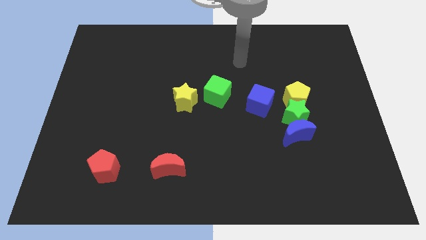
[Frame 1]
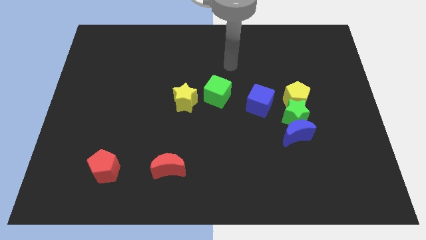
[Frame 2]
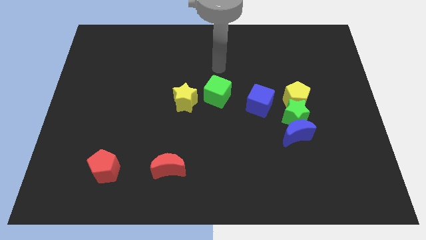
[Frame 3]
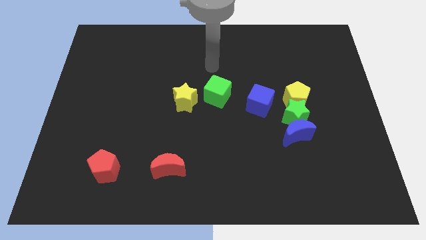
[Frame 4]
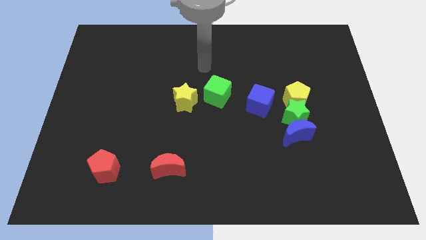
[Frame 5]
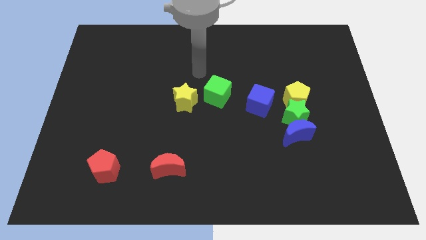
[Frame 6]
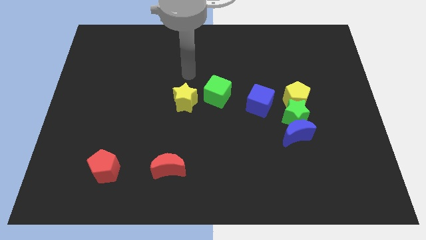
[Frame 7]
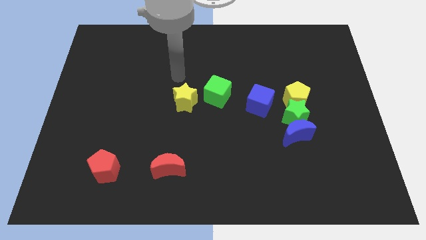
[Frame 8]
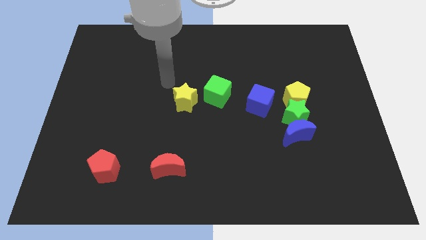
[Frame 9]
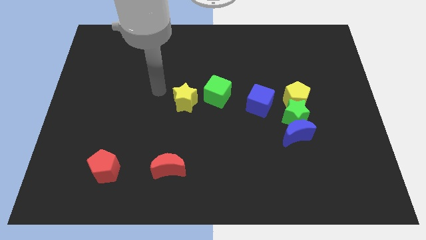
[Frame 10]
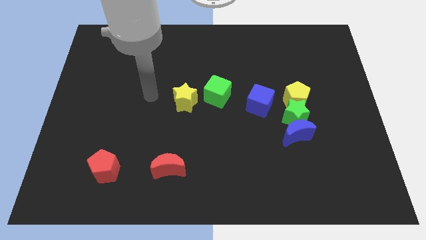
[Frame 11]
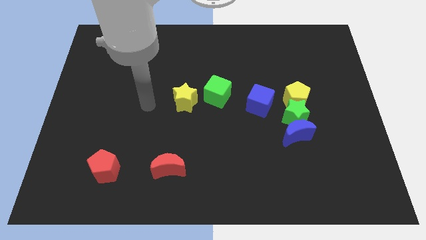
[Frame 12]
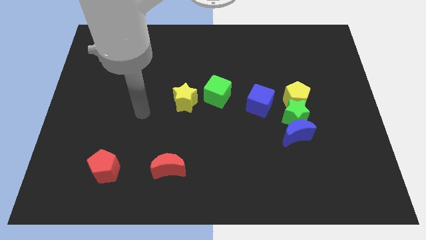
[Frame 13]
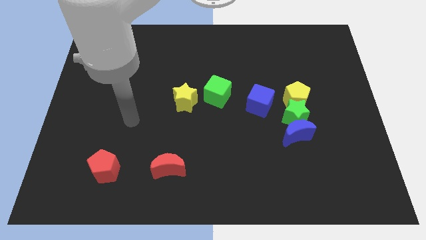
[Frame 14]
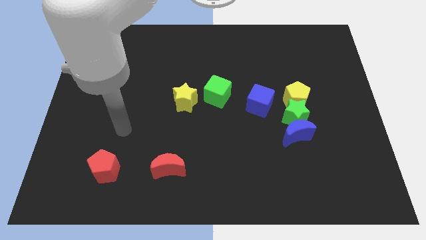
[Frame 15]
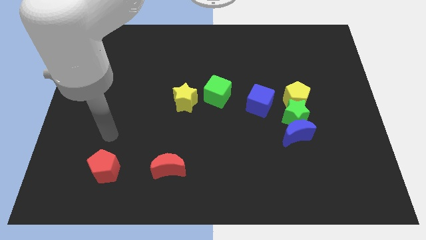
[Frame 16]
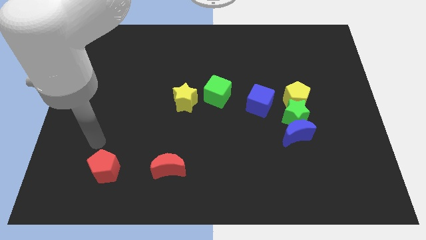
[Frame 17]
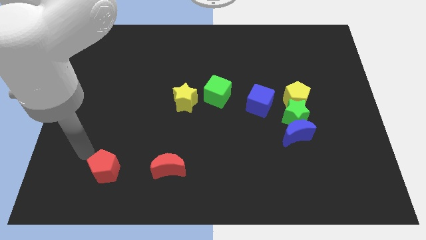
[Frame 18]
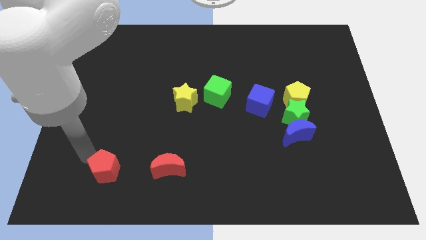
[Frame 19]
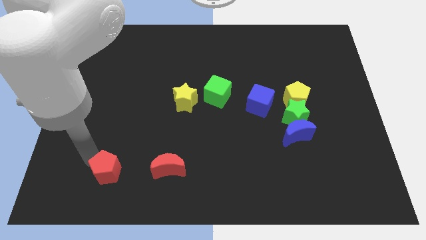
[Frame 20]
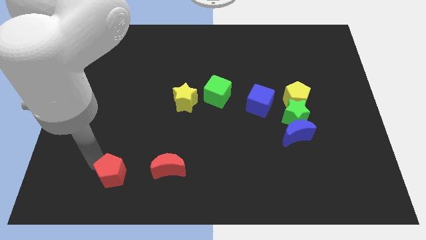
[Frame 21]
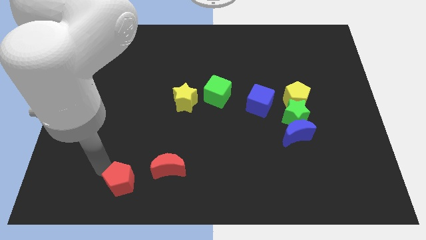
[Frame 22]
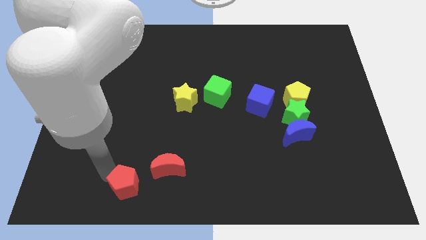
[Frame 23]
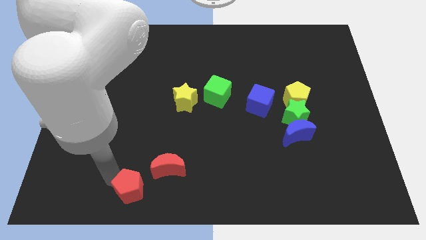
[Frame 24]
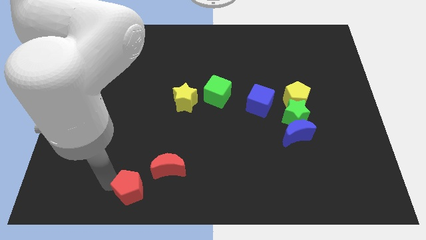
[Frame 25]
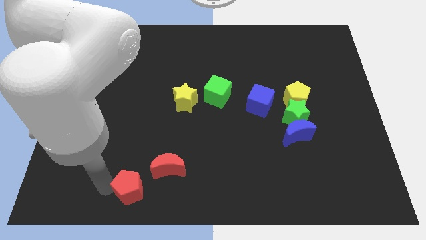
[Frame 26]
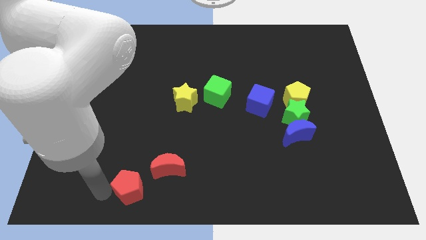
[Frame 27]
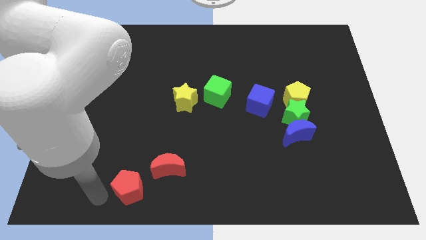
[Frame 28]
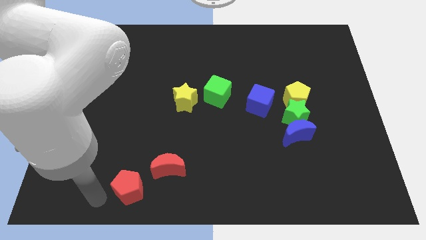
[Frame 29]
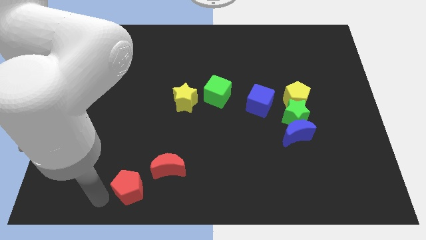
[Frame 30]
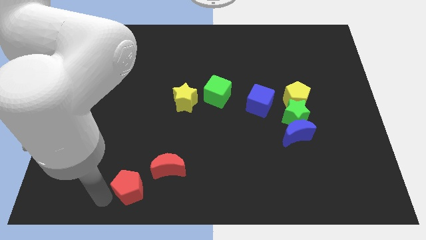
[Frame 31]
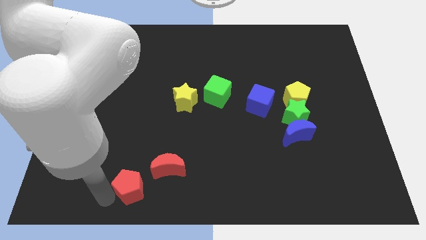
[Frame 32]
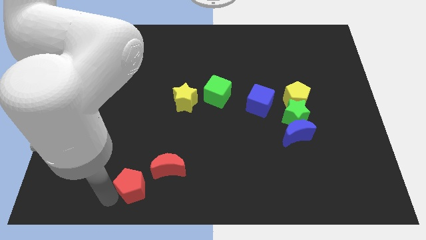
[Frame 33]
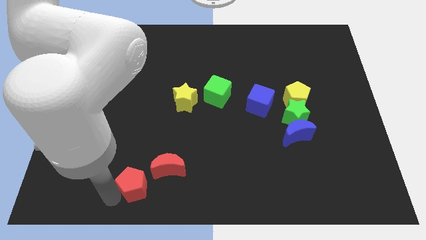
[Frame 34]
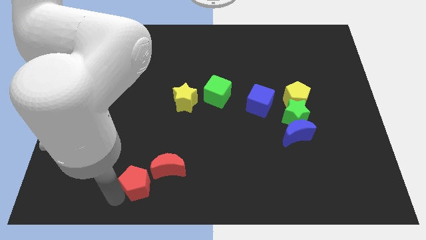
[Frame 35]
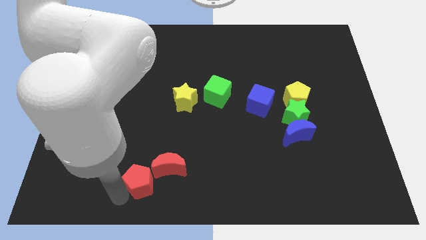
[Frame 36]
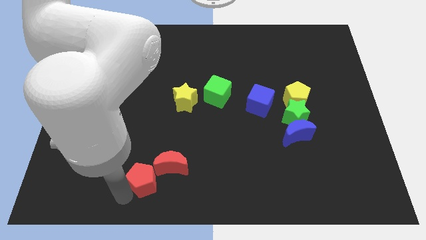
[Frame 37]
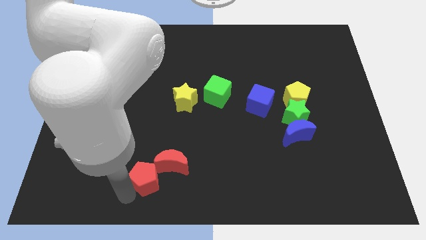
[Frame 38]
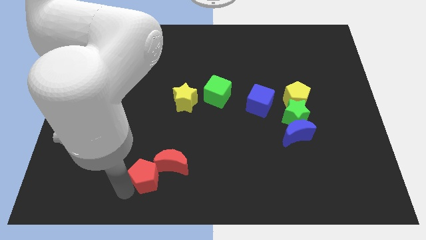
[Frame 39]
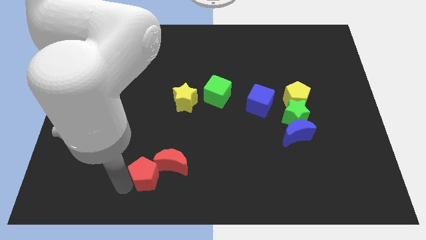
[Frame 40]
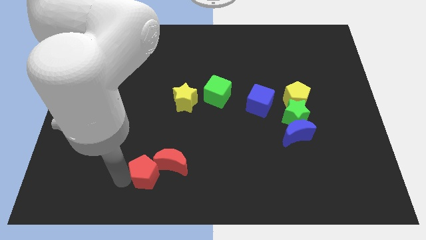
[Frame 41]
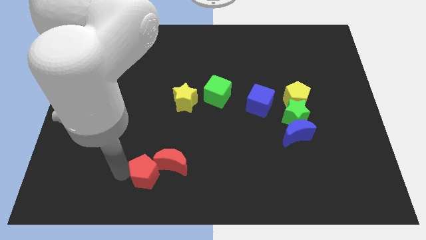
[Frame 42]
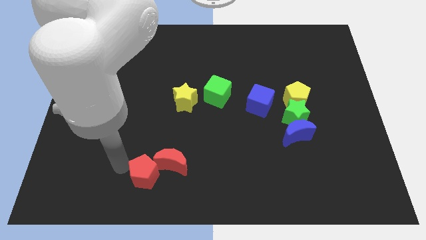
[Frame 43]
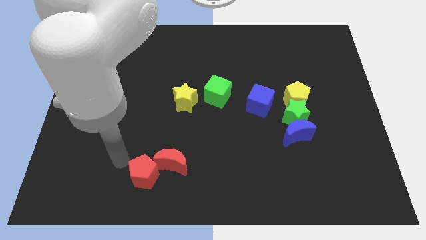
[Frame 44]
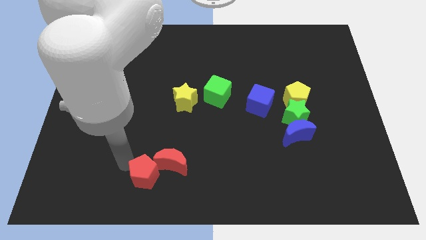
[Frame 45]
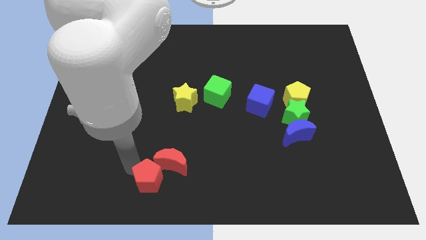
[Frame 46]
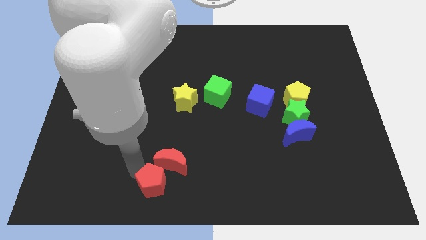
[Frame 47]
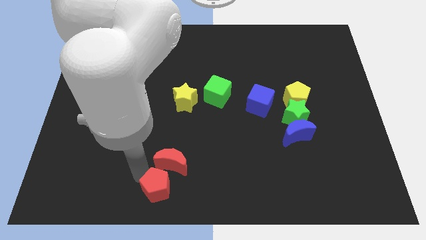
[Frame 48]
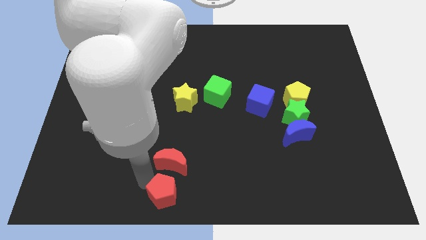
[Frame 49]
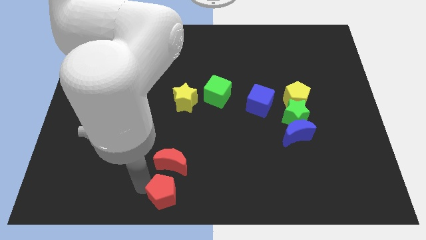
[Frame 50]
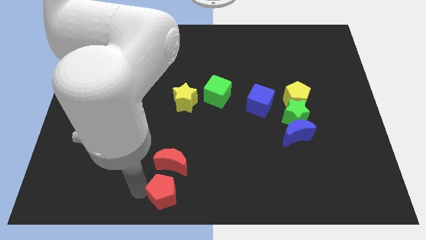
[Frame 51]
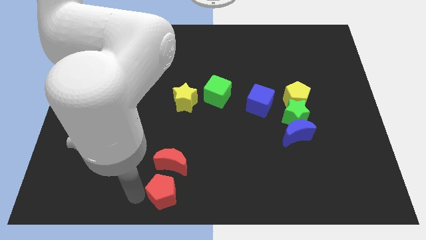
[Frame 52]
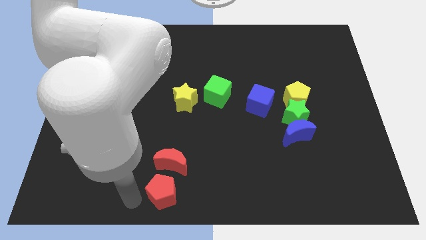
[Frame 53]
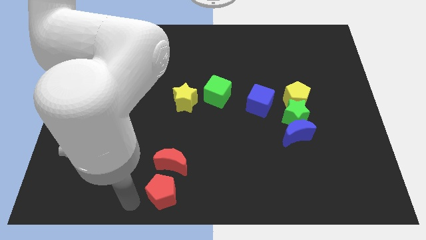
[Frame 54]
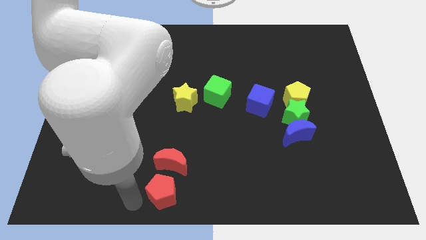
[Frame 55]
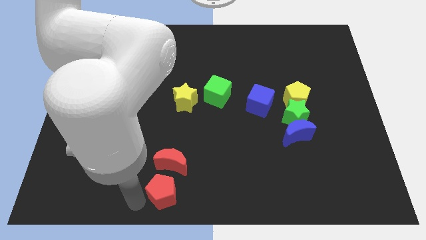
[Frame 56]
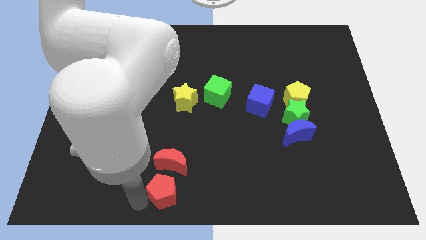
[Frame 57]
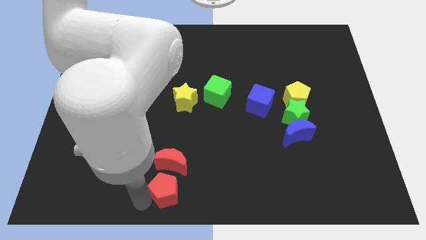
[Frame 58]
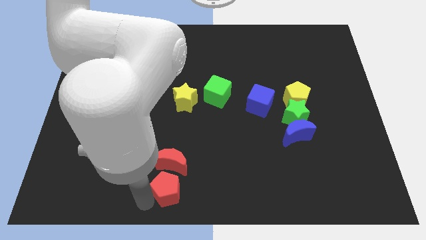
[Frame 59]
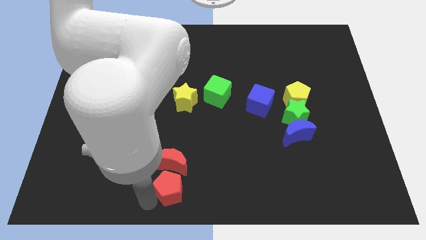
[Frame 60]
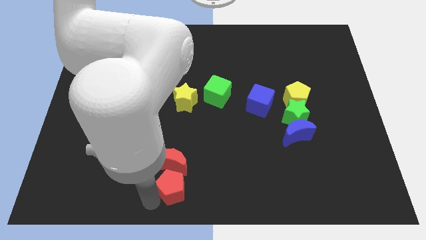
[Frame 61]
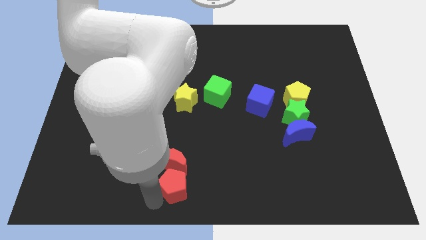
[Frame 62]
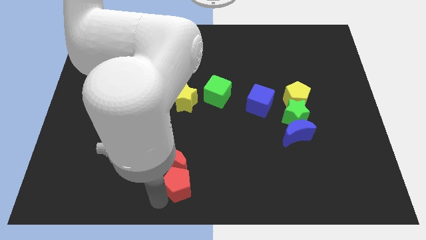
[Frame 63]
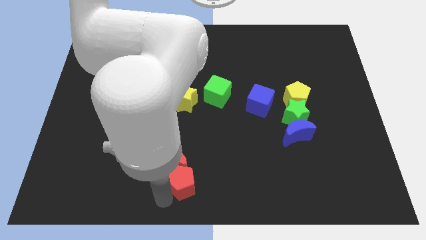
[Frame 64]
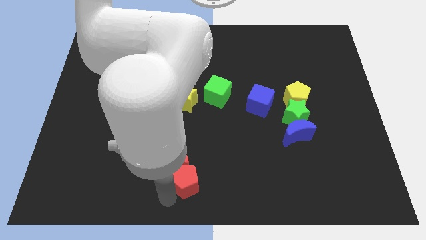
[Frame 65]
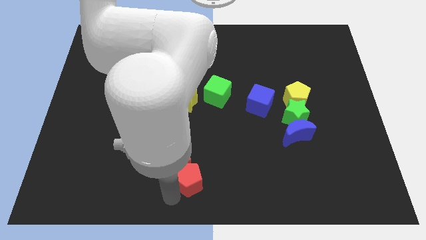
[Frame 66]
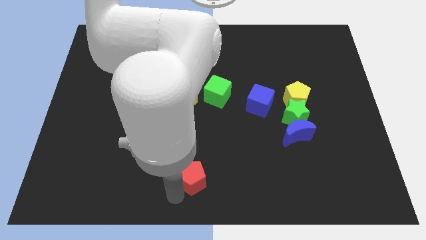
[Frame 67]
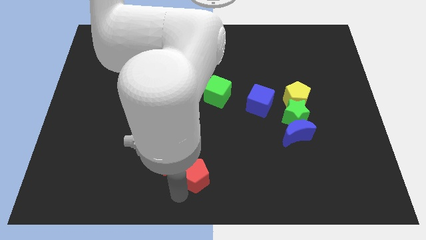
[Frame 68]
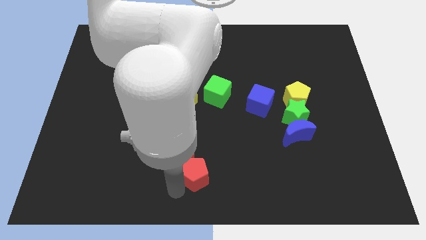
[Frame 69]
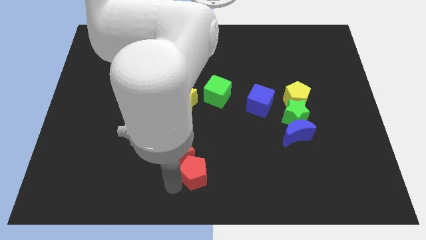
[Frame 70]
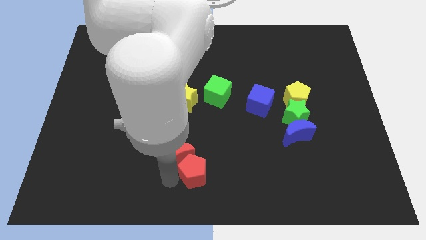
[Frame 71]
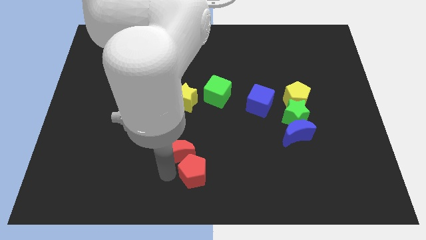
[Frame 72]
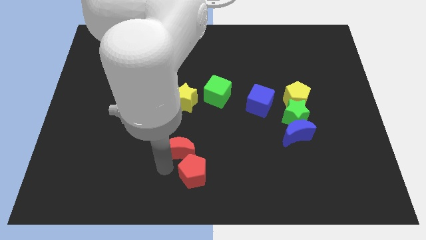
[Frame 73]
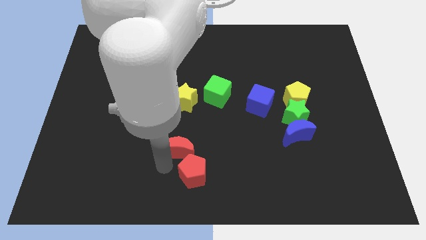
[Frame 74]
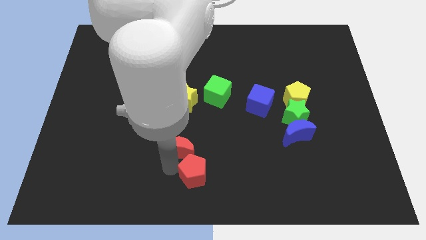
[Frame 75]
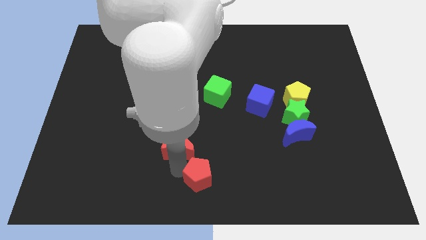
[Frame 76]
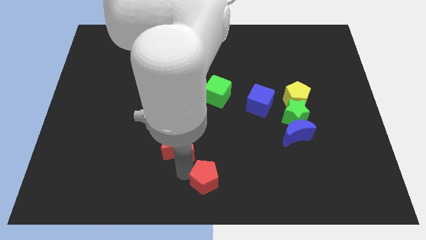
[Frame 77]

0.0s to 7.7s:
move the red pentagon right

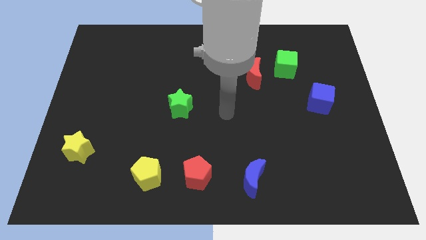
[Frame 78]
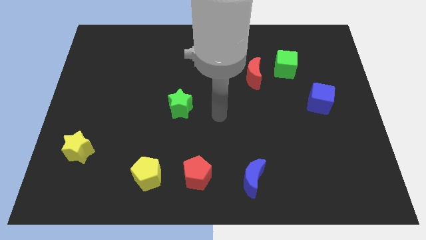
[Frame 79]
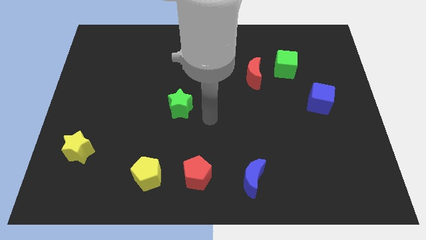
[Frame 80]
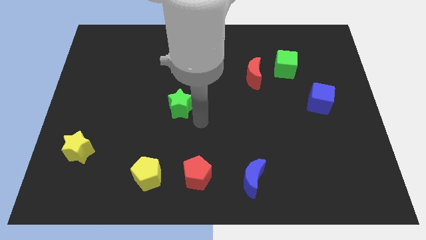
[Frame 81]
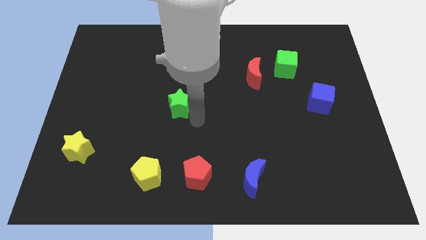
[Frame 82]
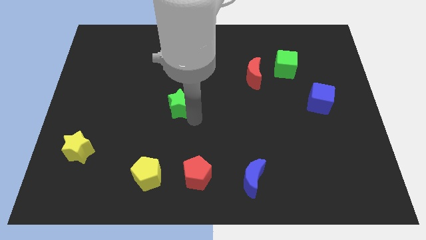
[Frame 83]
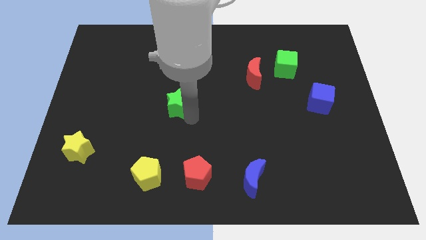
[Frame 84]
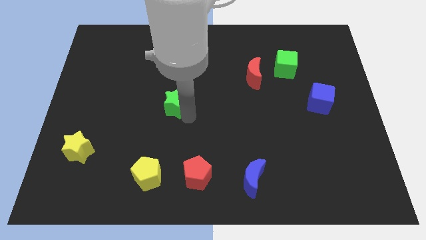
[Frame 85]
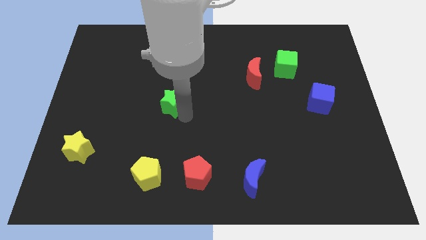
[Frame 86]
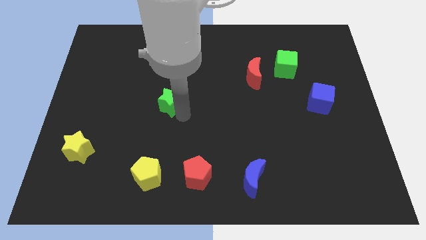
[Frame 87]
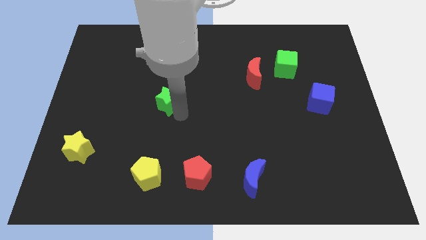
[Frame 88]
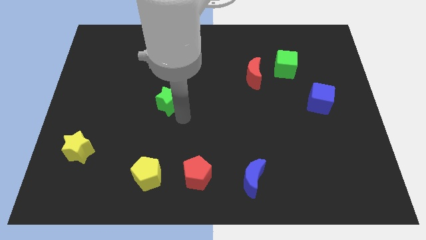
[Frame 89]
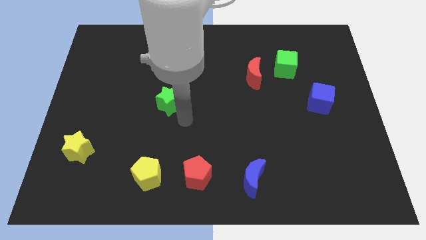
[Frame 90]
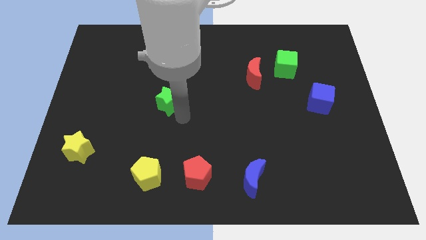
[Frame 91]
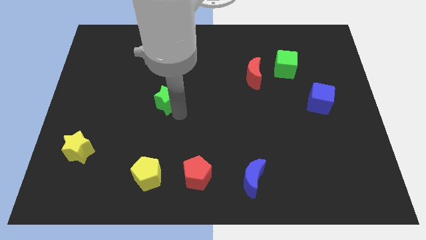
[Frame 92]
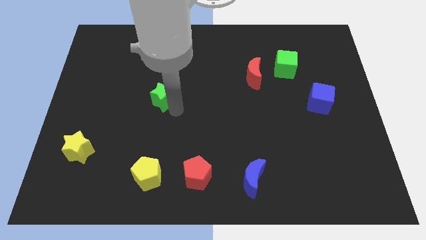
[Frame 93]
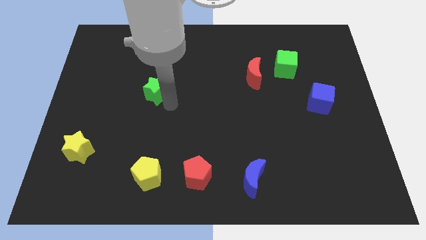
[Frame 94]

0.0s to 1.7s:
slightly slide the green star up and then left
